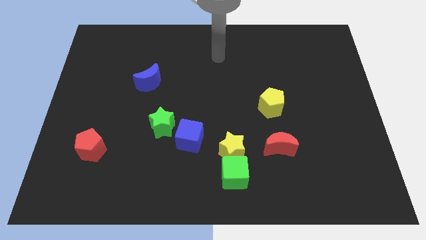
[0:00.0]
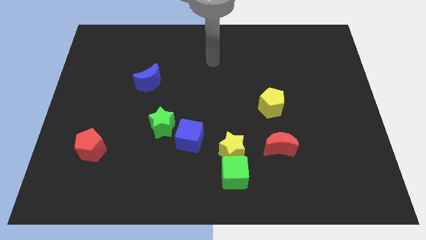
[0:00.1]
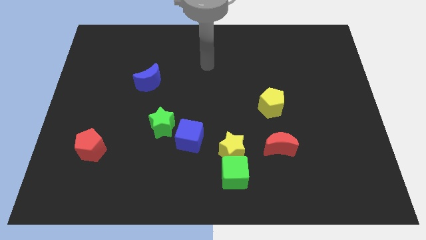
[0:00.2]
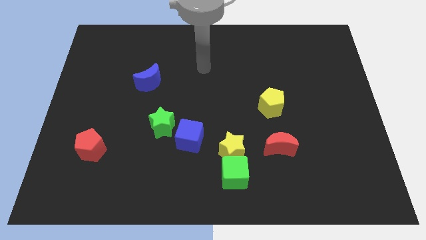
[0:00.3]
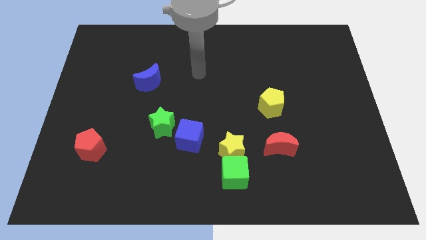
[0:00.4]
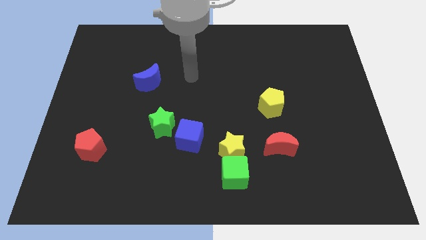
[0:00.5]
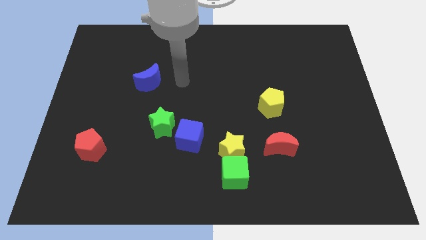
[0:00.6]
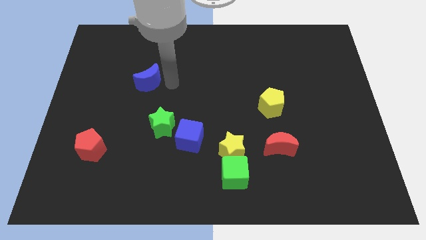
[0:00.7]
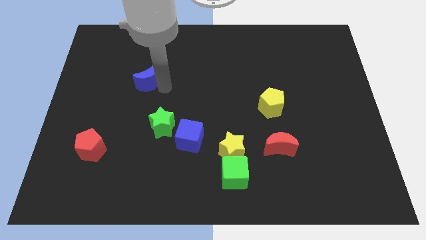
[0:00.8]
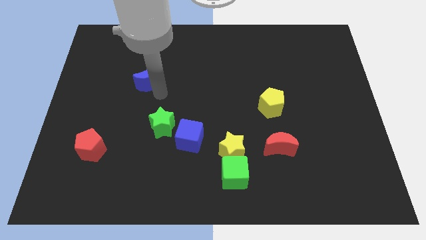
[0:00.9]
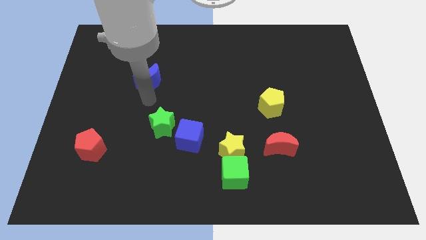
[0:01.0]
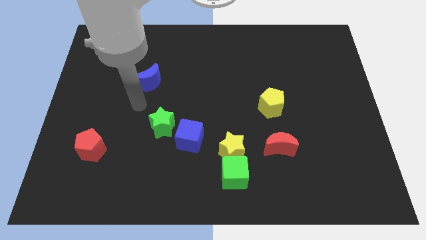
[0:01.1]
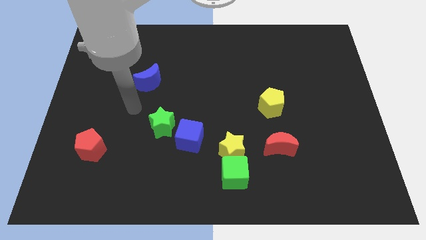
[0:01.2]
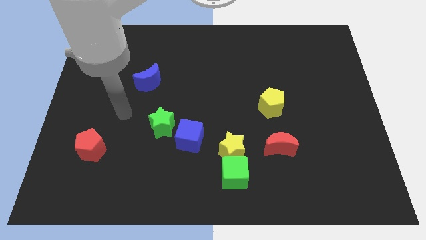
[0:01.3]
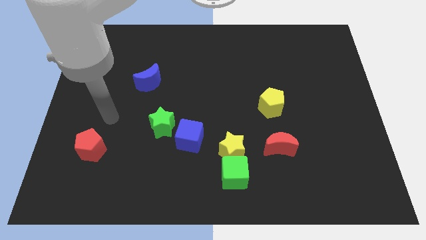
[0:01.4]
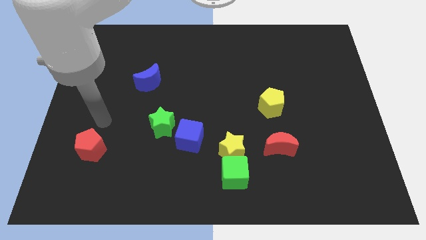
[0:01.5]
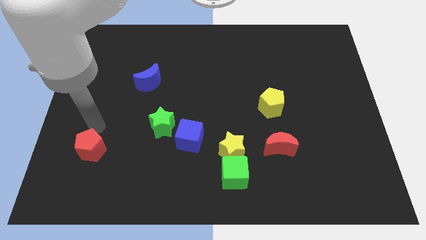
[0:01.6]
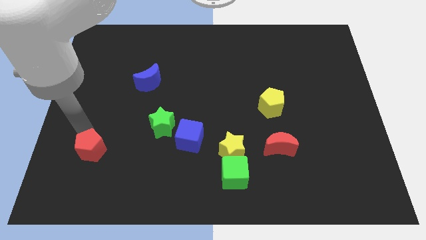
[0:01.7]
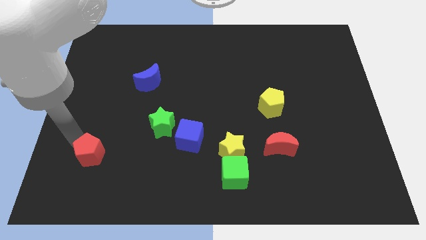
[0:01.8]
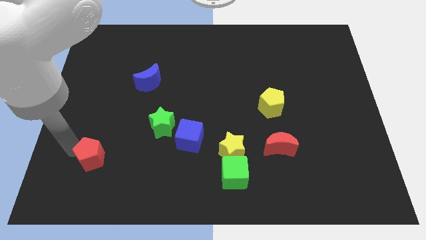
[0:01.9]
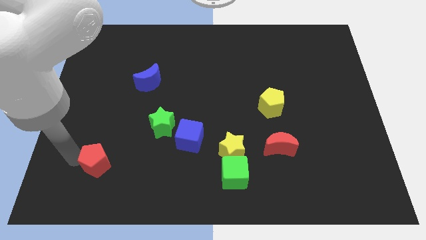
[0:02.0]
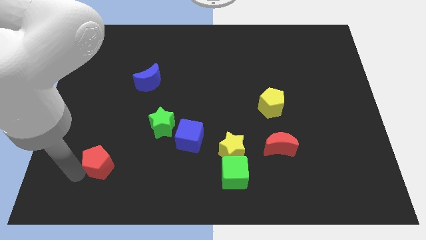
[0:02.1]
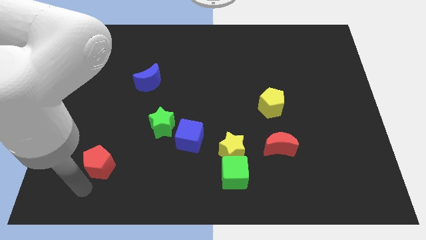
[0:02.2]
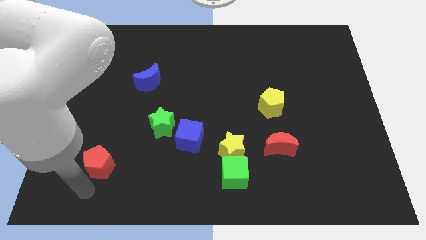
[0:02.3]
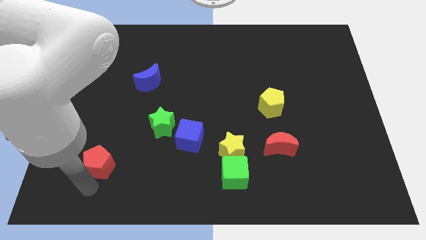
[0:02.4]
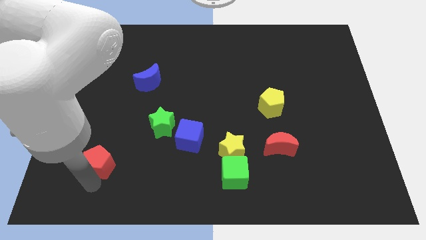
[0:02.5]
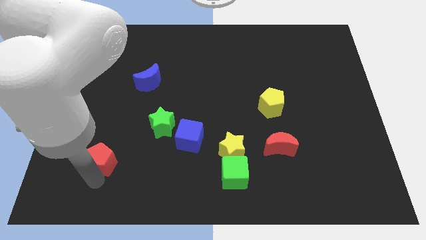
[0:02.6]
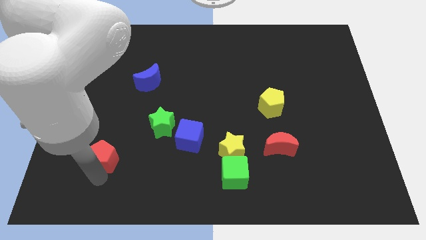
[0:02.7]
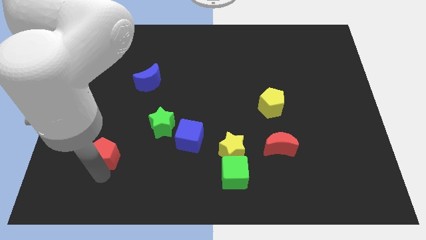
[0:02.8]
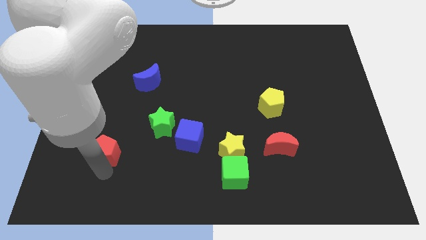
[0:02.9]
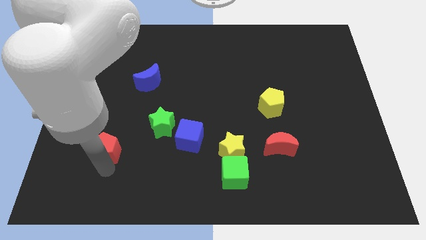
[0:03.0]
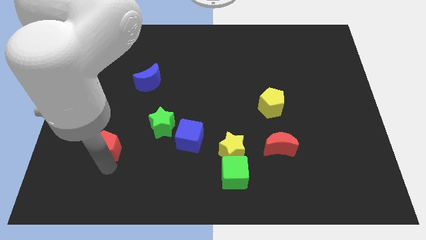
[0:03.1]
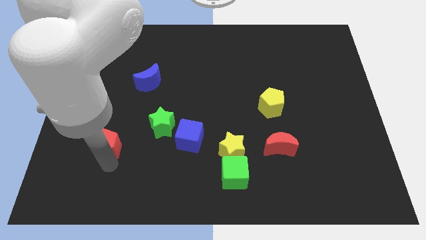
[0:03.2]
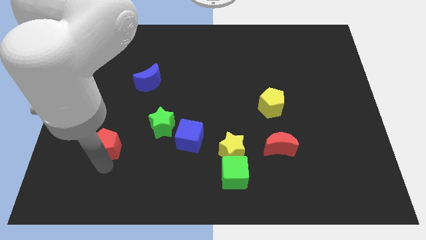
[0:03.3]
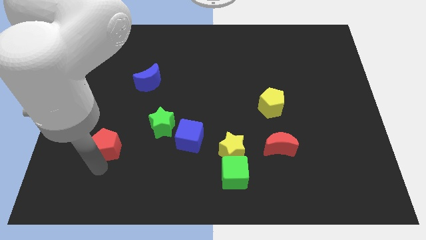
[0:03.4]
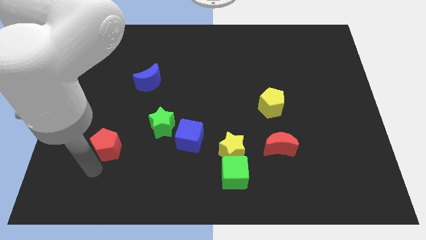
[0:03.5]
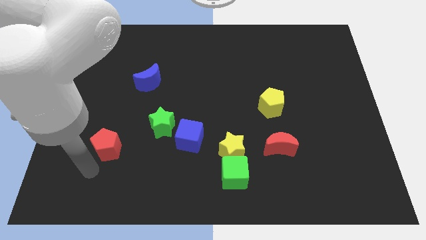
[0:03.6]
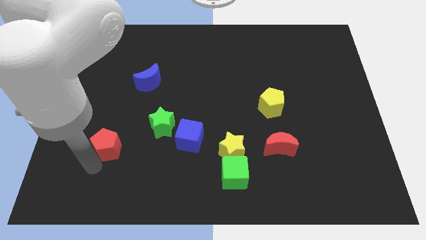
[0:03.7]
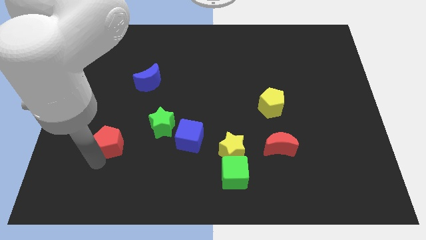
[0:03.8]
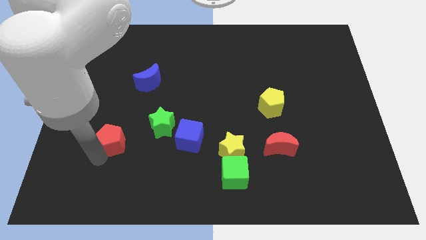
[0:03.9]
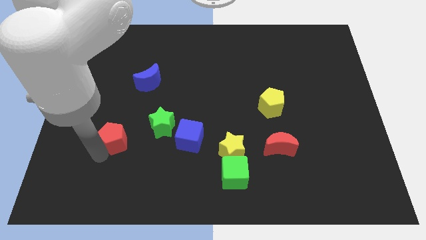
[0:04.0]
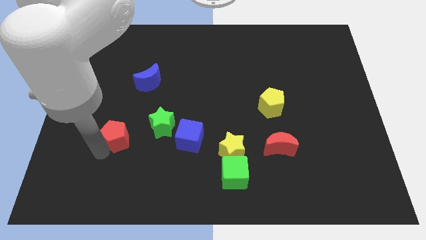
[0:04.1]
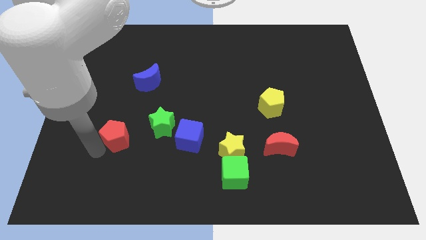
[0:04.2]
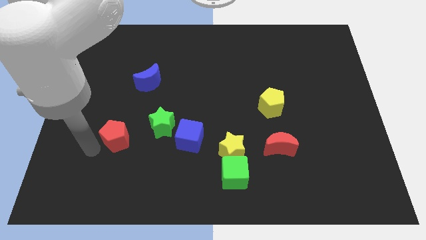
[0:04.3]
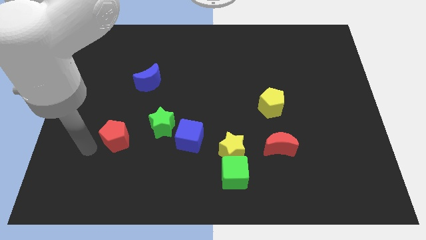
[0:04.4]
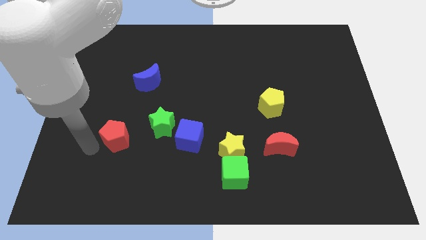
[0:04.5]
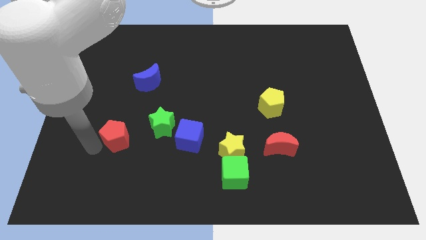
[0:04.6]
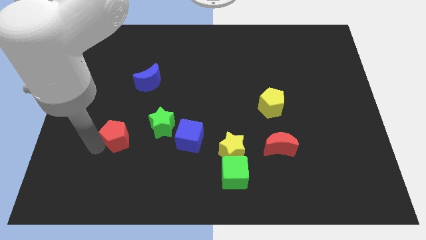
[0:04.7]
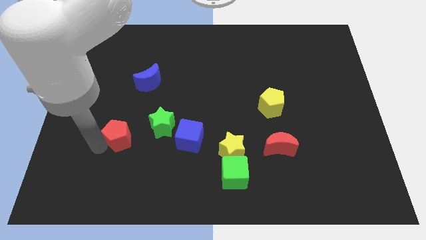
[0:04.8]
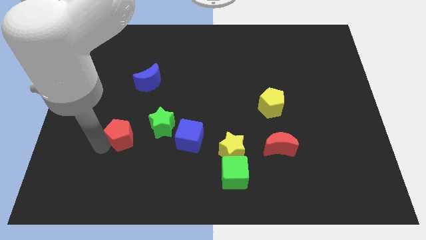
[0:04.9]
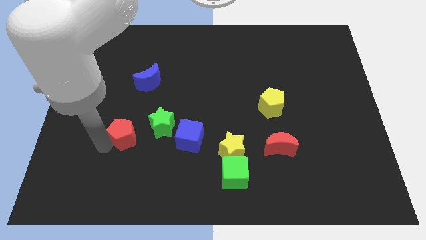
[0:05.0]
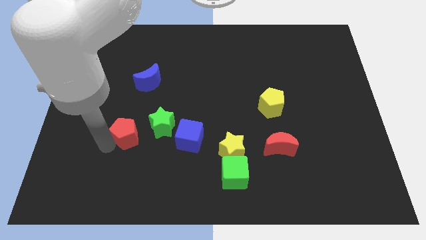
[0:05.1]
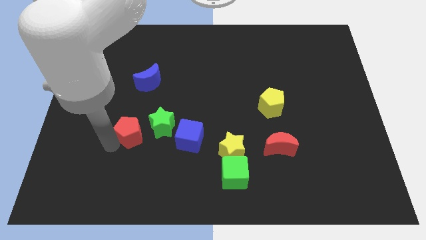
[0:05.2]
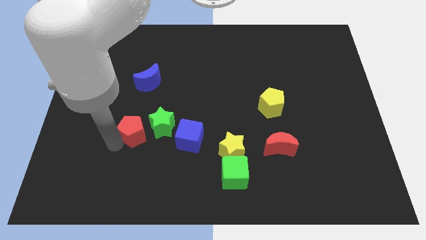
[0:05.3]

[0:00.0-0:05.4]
put the red pentagon towards the green star

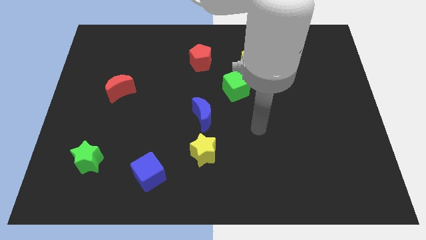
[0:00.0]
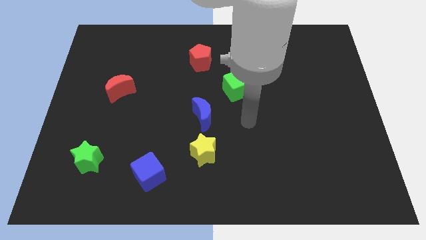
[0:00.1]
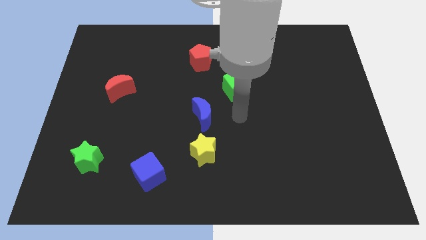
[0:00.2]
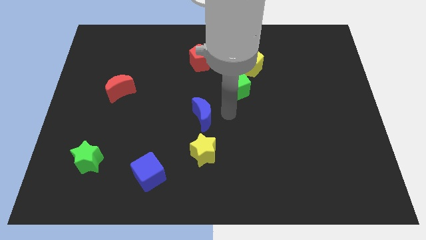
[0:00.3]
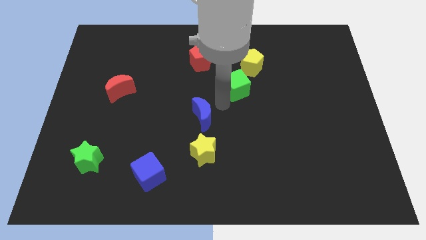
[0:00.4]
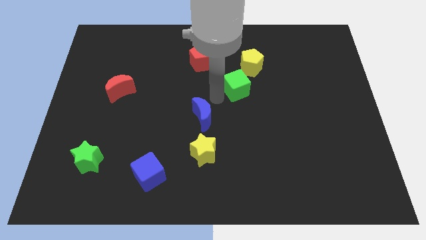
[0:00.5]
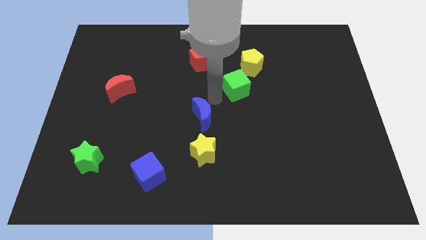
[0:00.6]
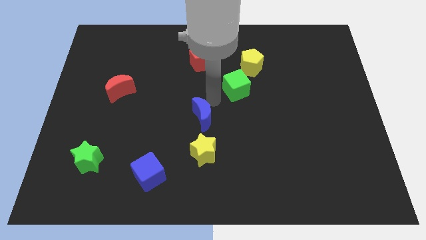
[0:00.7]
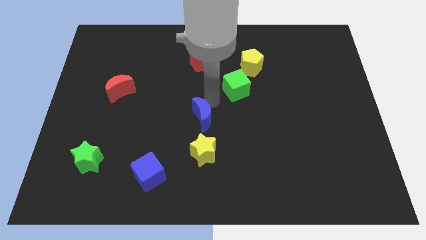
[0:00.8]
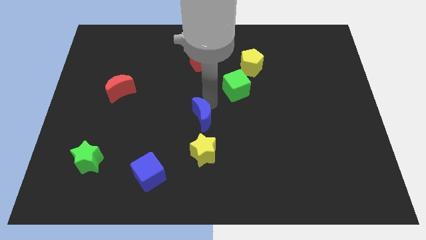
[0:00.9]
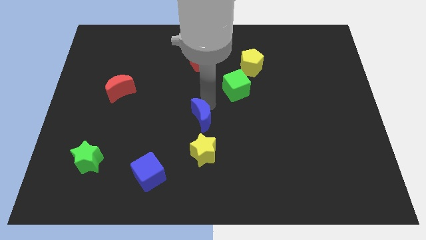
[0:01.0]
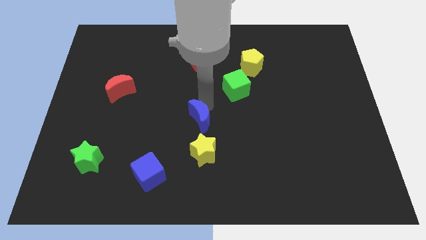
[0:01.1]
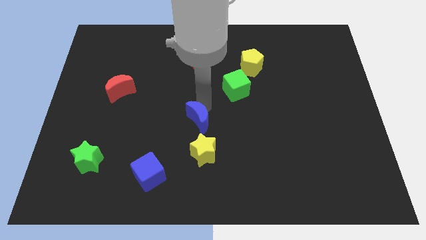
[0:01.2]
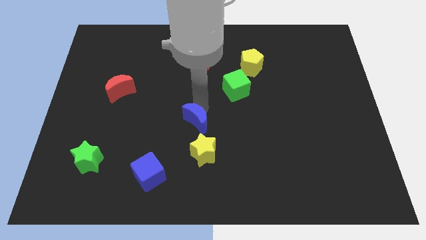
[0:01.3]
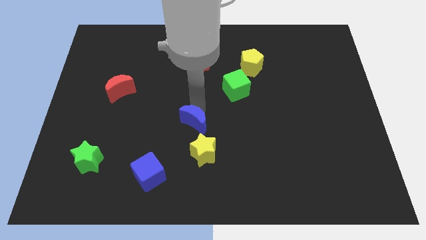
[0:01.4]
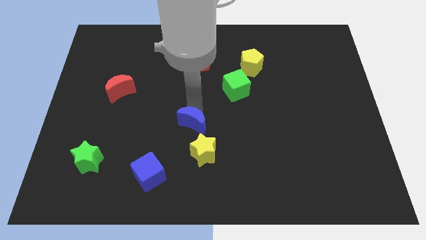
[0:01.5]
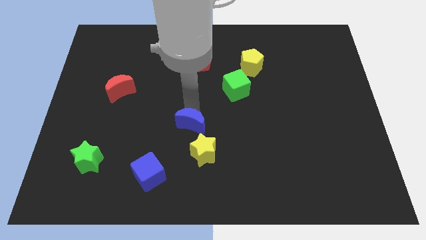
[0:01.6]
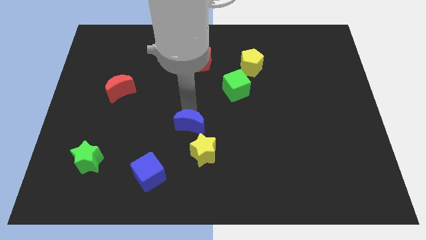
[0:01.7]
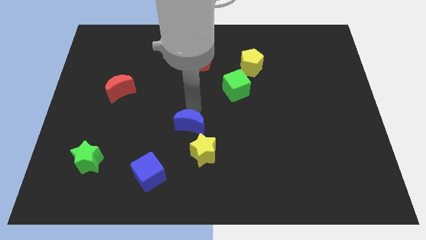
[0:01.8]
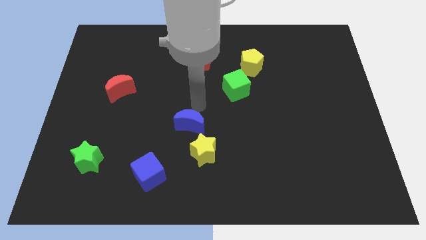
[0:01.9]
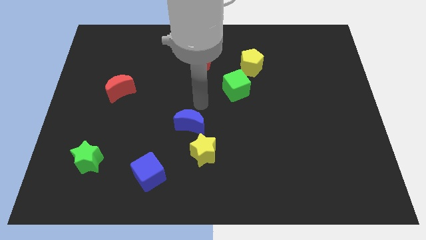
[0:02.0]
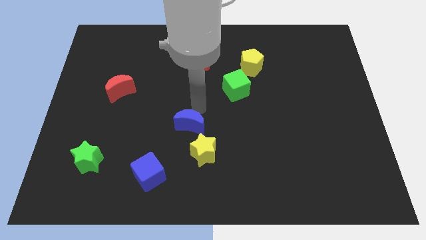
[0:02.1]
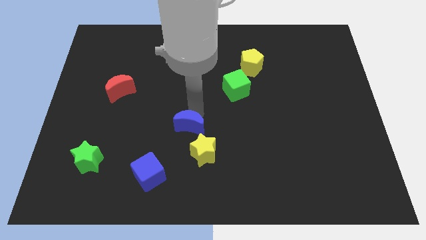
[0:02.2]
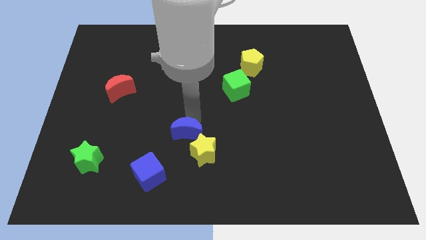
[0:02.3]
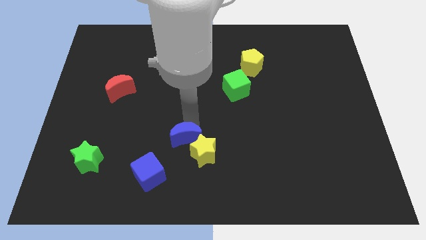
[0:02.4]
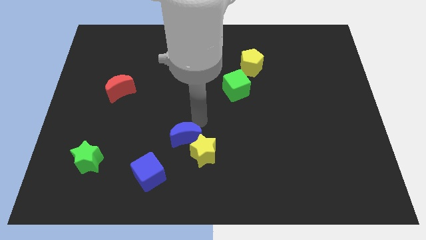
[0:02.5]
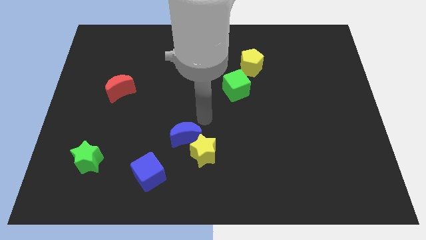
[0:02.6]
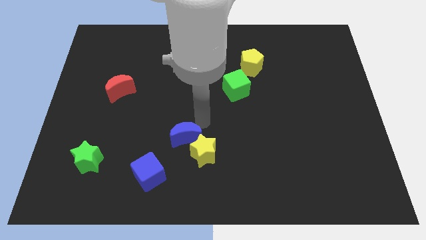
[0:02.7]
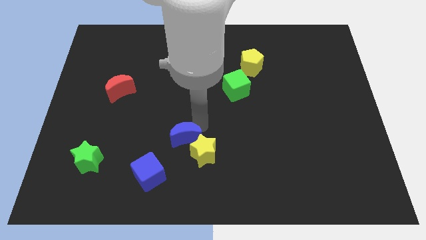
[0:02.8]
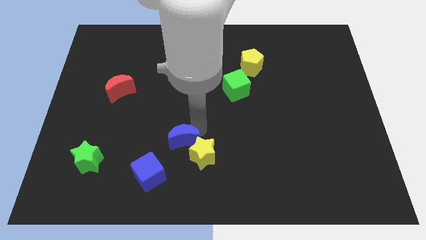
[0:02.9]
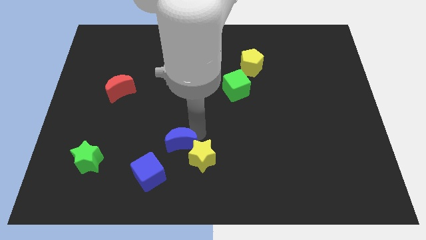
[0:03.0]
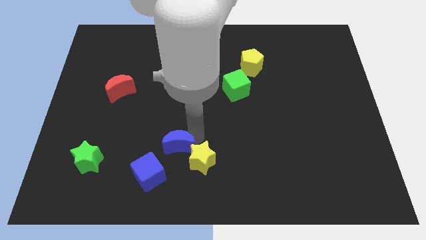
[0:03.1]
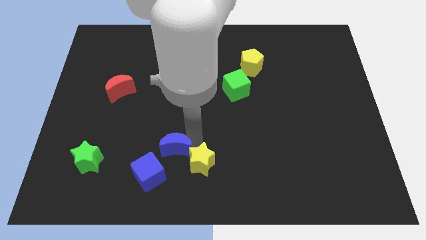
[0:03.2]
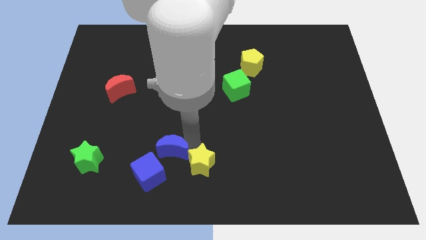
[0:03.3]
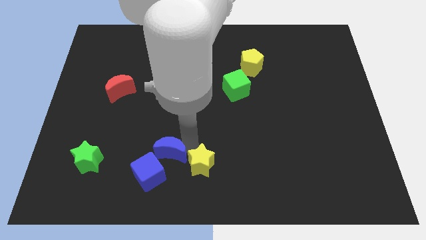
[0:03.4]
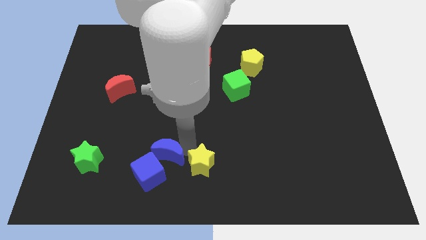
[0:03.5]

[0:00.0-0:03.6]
slide the blue moon close to the blue cube
